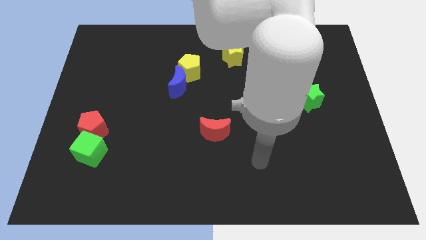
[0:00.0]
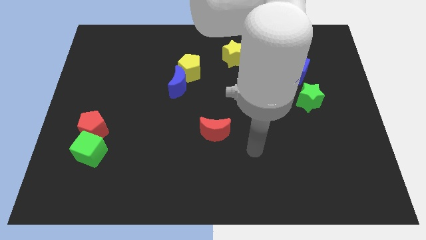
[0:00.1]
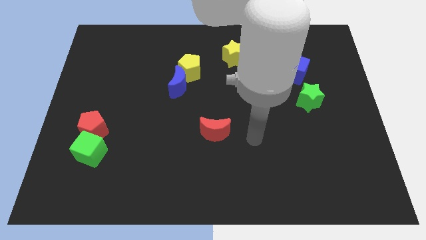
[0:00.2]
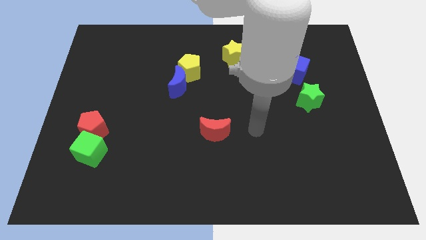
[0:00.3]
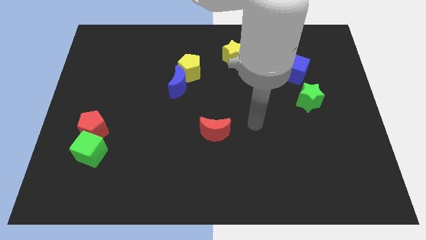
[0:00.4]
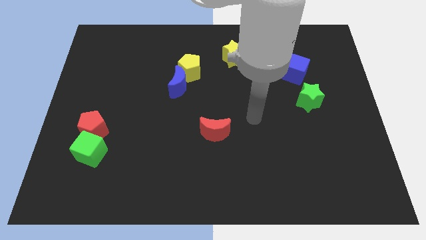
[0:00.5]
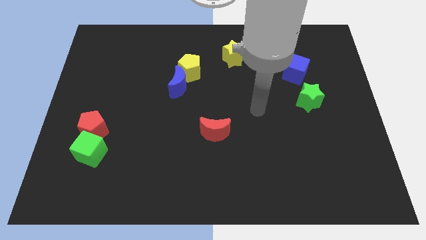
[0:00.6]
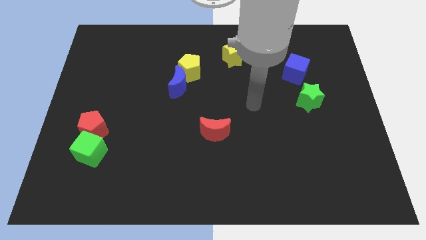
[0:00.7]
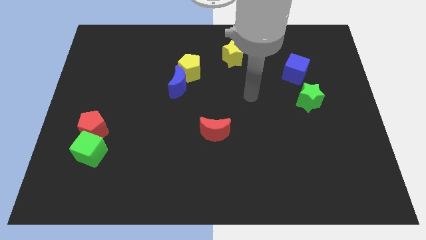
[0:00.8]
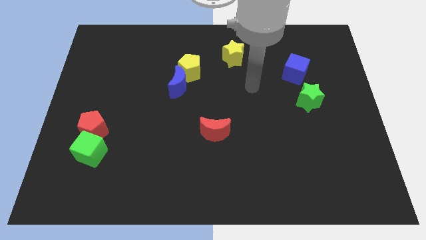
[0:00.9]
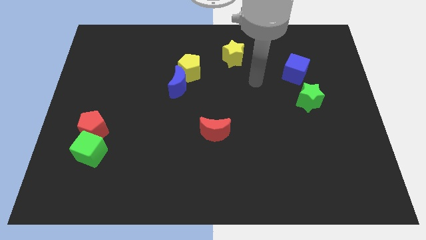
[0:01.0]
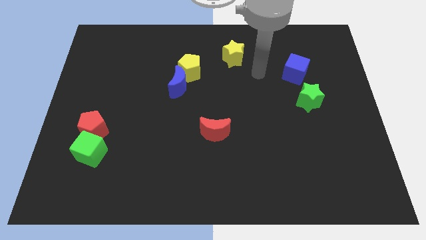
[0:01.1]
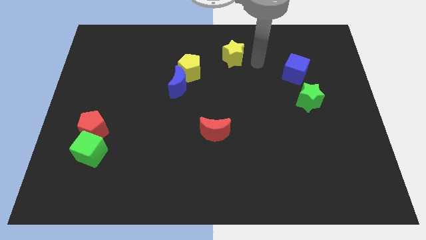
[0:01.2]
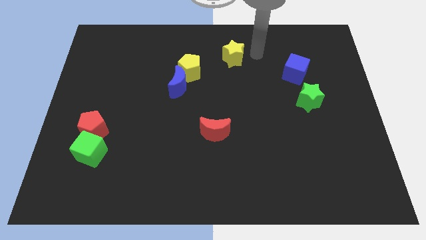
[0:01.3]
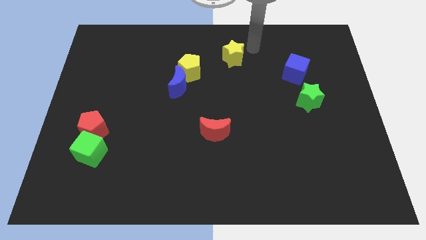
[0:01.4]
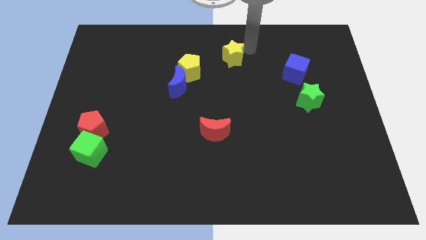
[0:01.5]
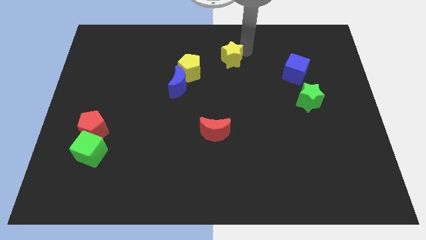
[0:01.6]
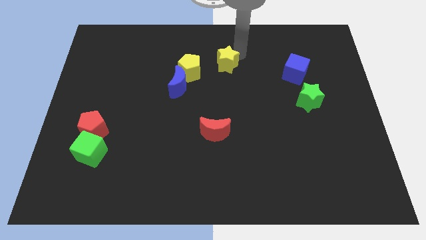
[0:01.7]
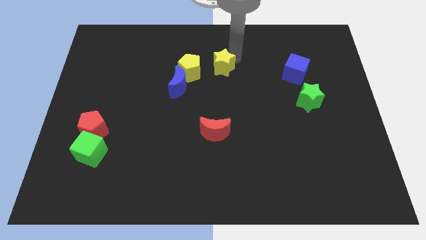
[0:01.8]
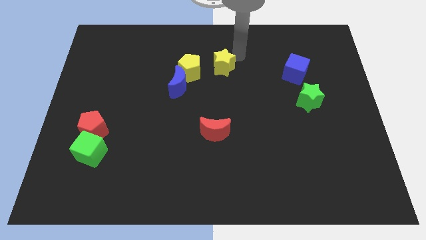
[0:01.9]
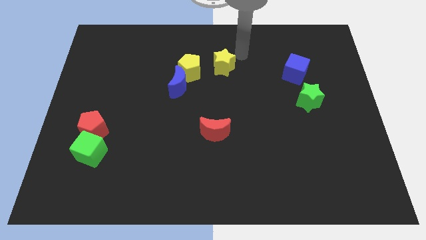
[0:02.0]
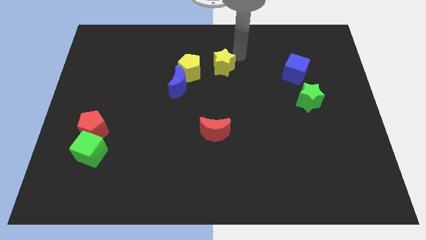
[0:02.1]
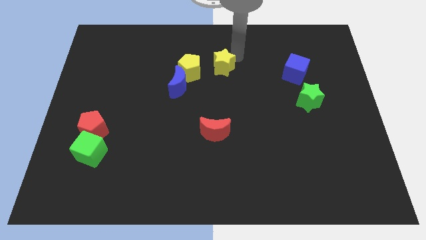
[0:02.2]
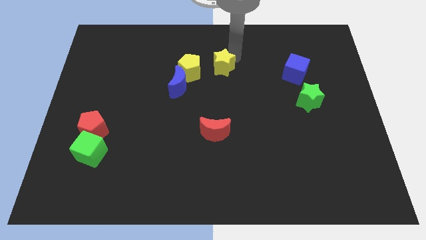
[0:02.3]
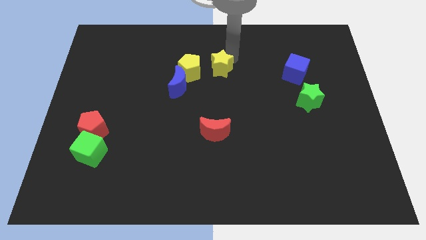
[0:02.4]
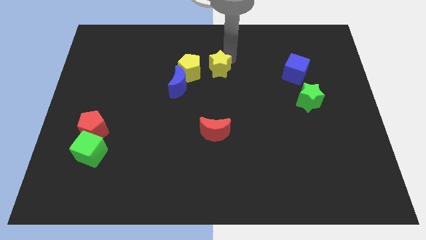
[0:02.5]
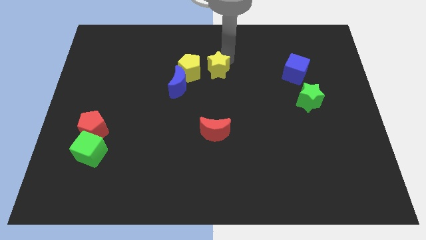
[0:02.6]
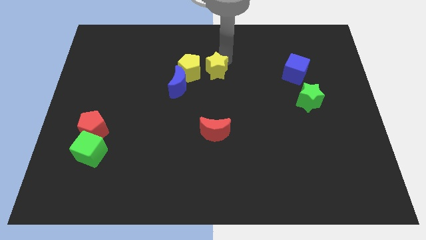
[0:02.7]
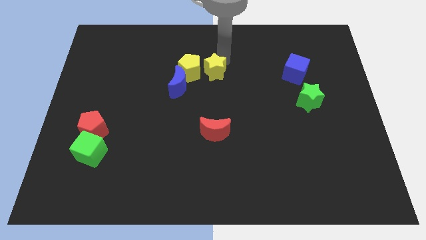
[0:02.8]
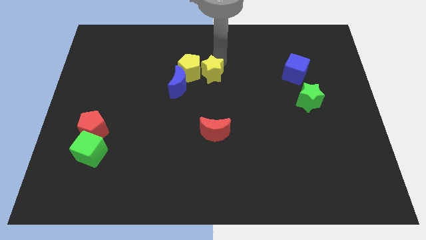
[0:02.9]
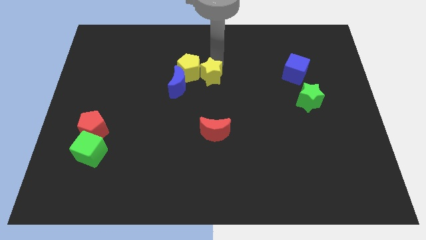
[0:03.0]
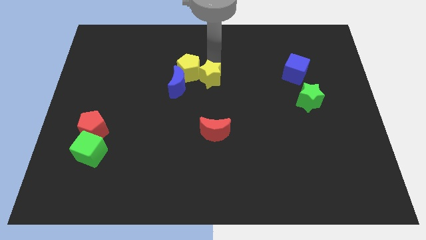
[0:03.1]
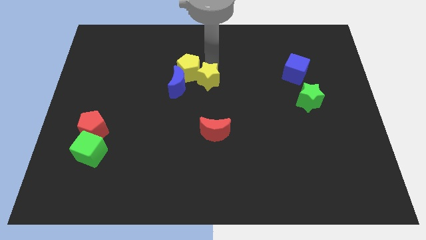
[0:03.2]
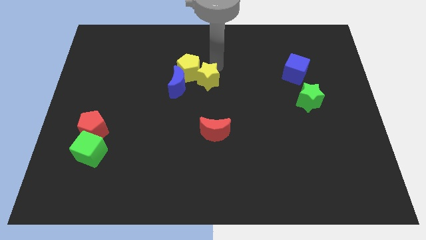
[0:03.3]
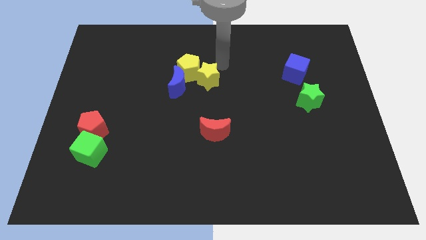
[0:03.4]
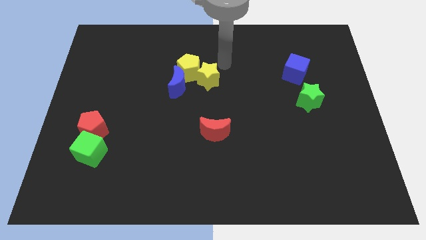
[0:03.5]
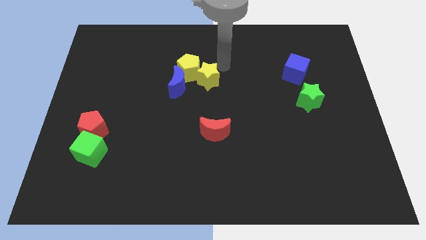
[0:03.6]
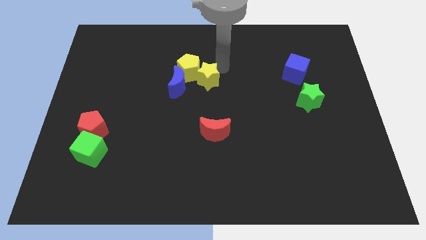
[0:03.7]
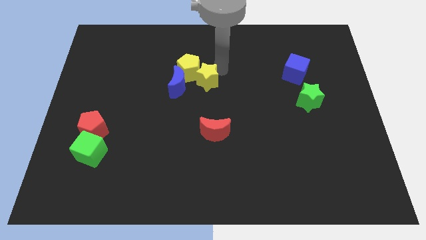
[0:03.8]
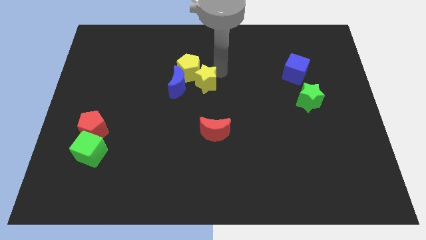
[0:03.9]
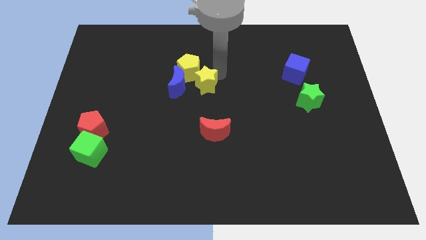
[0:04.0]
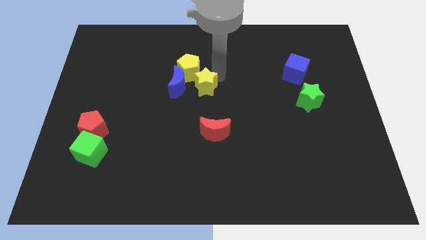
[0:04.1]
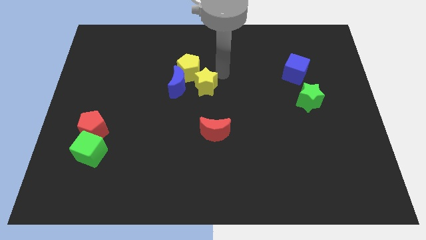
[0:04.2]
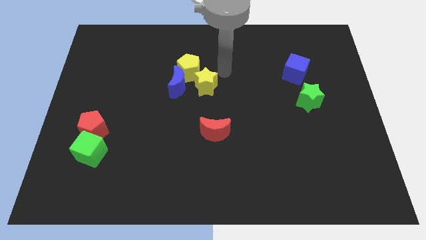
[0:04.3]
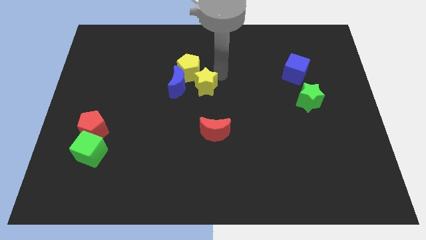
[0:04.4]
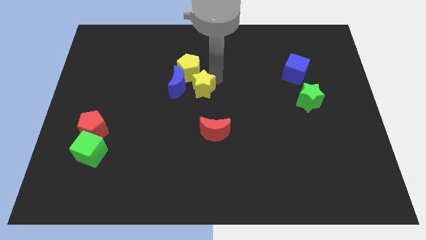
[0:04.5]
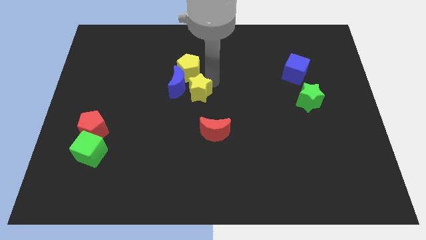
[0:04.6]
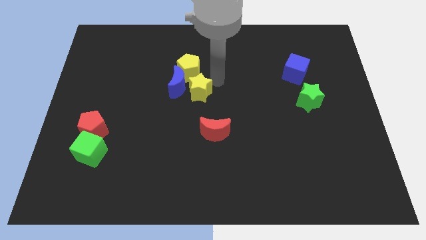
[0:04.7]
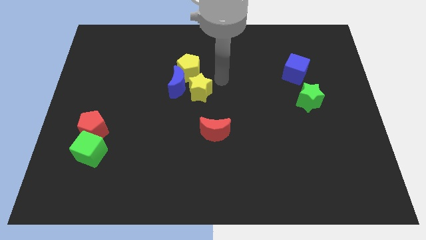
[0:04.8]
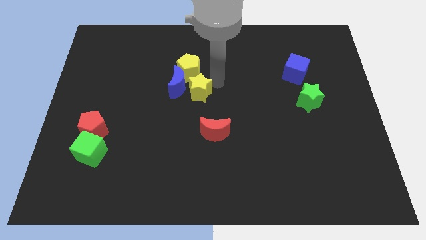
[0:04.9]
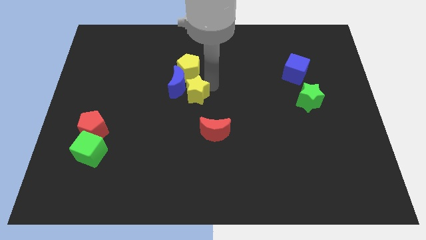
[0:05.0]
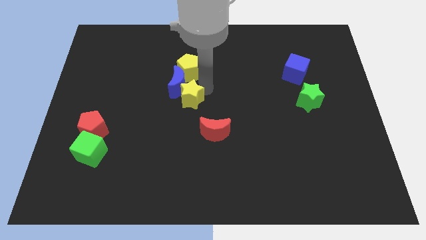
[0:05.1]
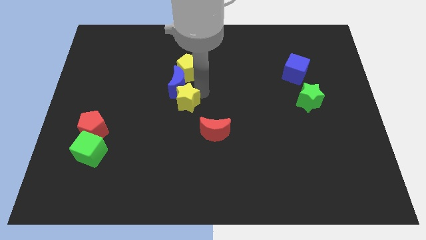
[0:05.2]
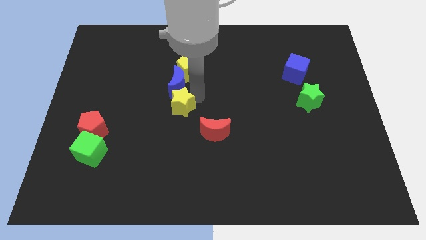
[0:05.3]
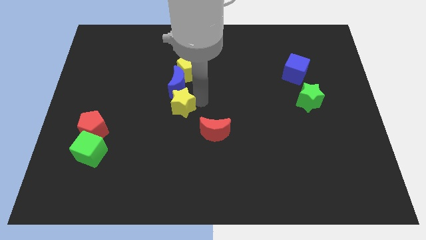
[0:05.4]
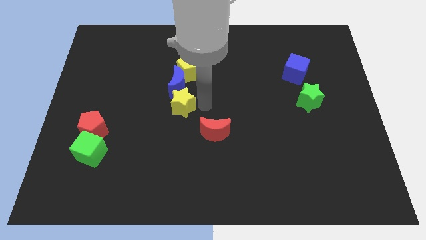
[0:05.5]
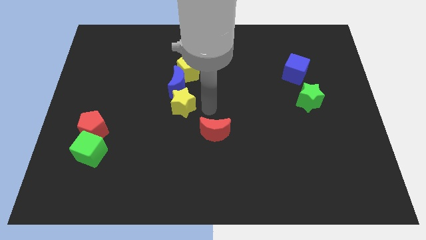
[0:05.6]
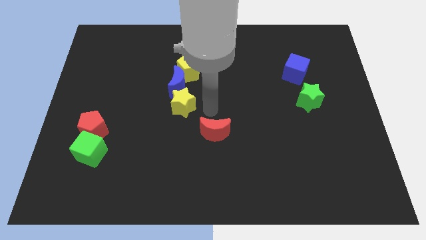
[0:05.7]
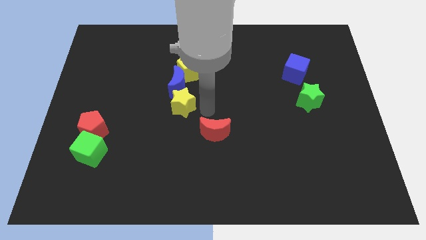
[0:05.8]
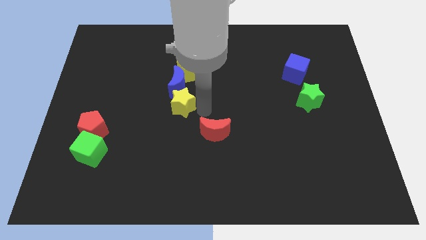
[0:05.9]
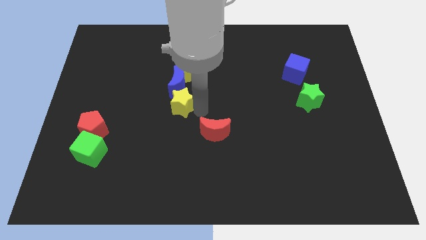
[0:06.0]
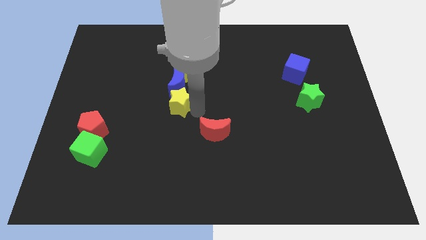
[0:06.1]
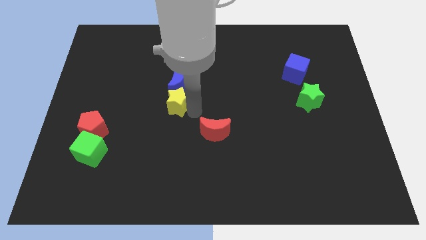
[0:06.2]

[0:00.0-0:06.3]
move the yellow star diagonally down and to the left of the blue moon

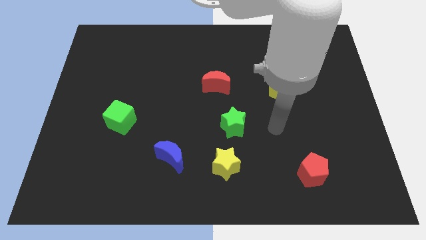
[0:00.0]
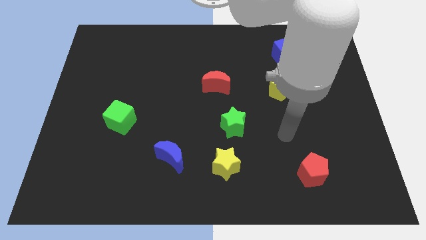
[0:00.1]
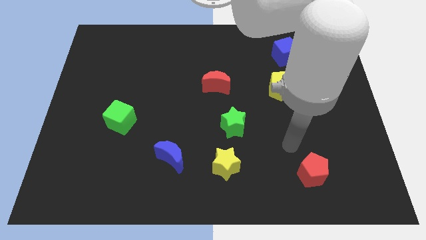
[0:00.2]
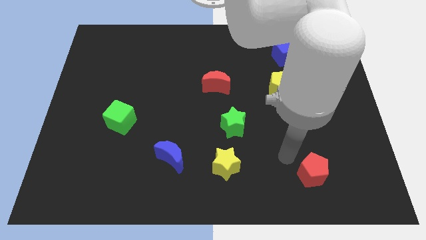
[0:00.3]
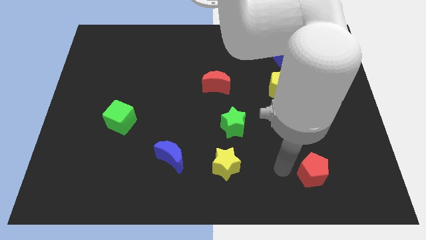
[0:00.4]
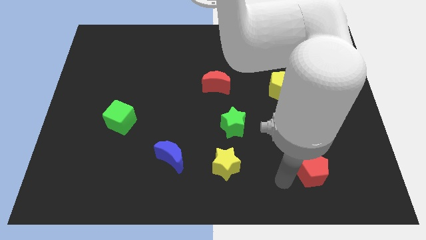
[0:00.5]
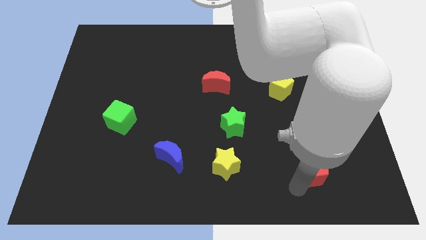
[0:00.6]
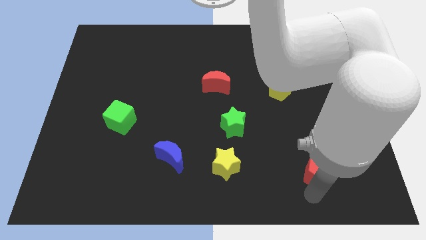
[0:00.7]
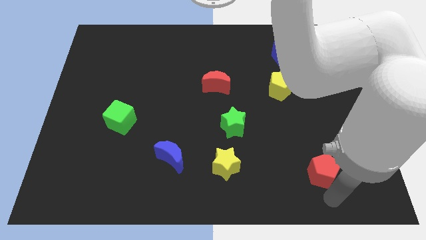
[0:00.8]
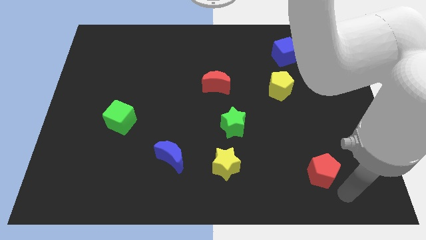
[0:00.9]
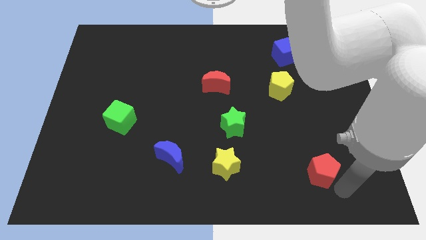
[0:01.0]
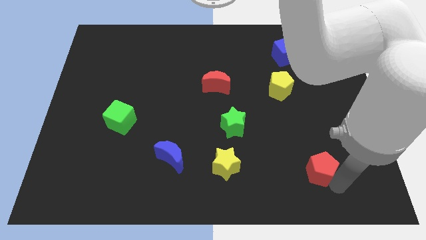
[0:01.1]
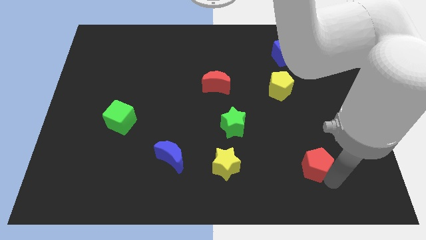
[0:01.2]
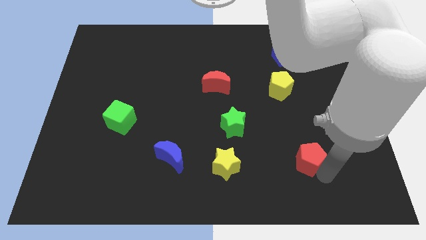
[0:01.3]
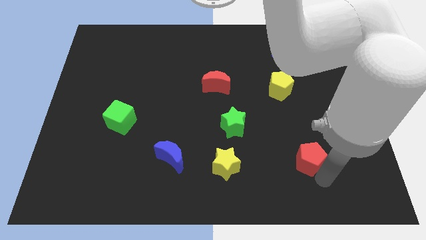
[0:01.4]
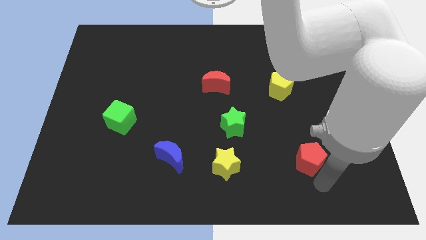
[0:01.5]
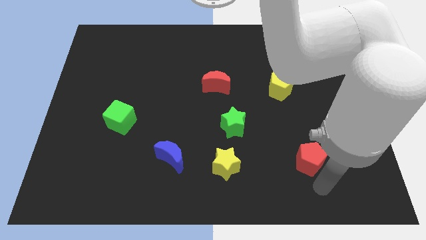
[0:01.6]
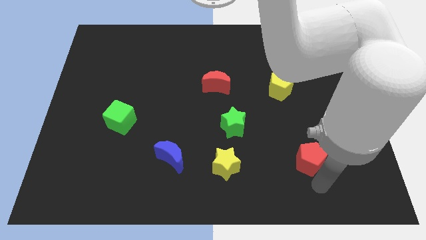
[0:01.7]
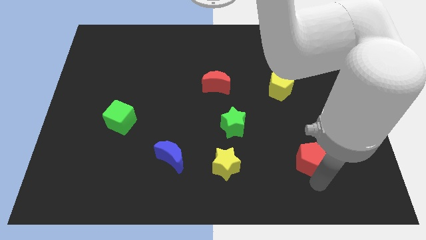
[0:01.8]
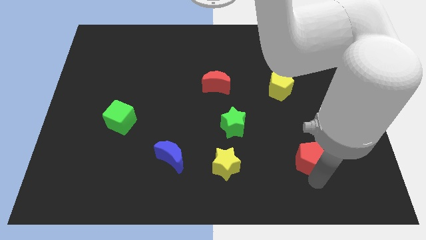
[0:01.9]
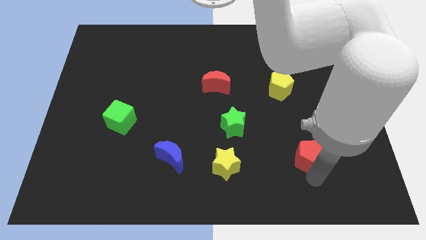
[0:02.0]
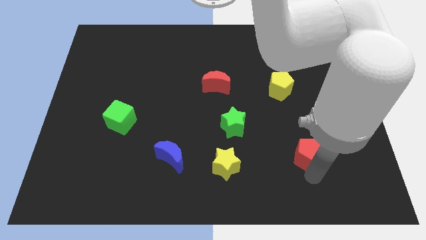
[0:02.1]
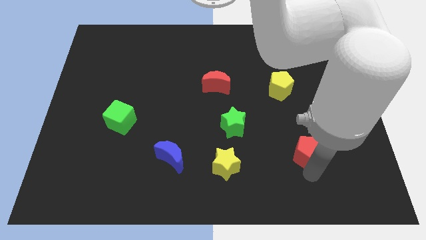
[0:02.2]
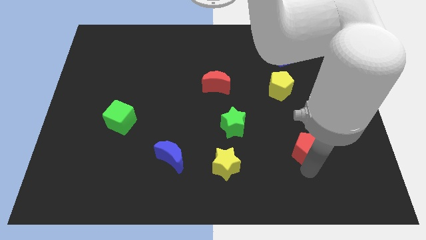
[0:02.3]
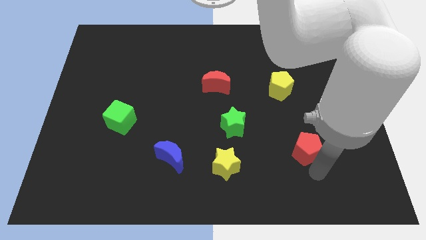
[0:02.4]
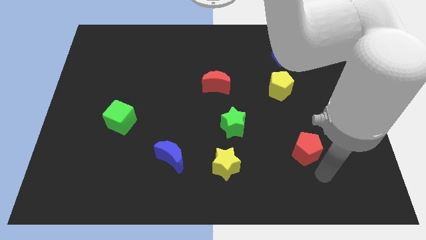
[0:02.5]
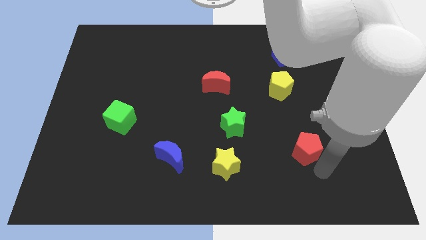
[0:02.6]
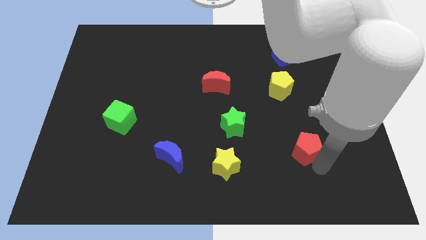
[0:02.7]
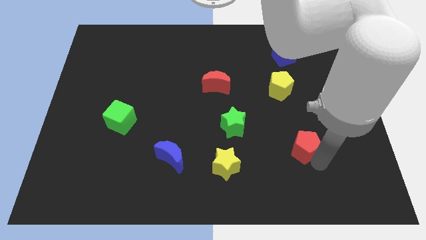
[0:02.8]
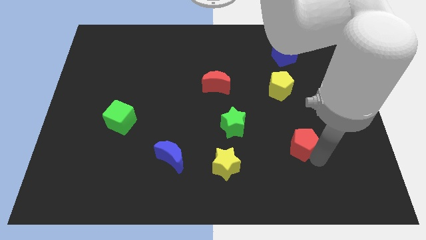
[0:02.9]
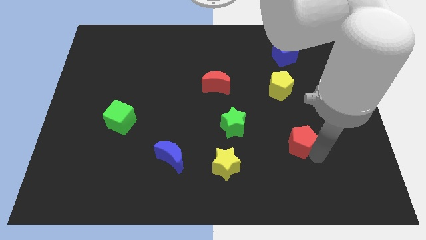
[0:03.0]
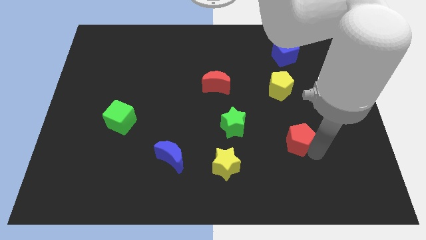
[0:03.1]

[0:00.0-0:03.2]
push the red pentagon below the yellow pentagon
